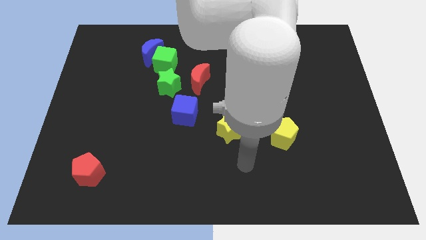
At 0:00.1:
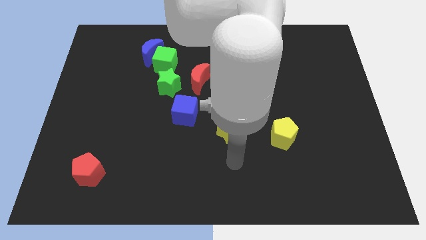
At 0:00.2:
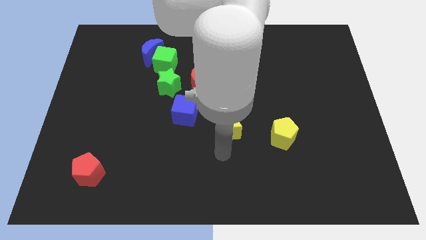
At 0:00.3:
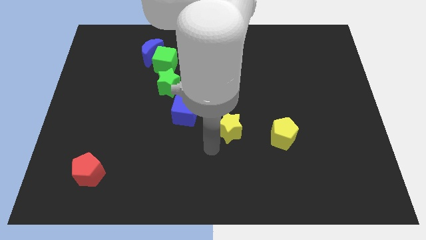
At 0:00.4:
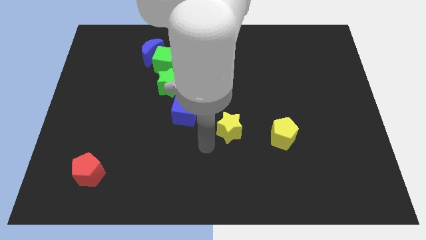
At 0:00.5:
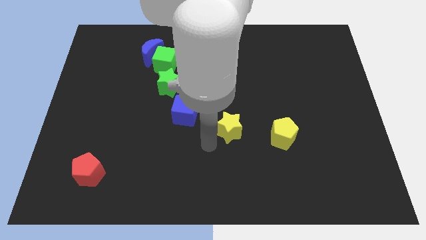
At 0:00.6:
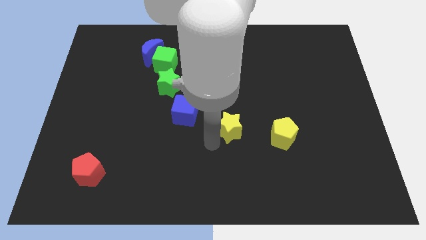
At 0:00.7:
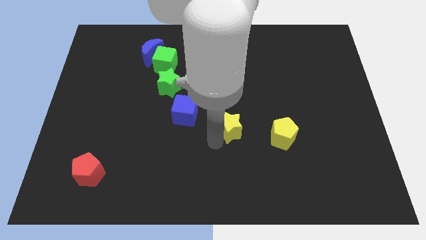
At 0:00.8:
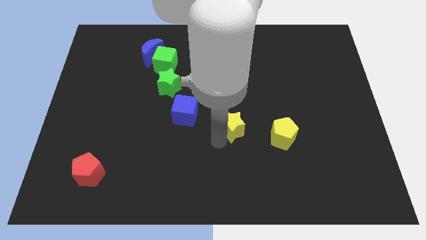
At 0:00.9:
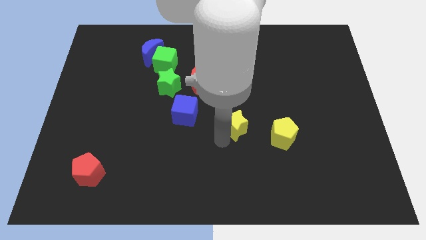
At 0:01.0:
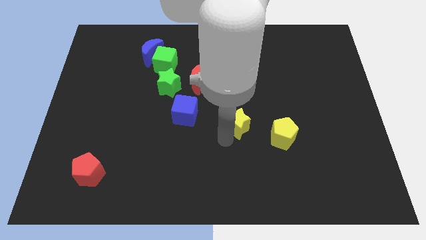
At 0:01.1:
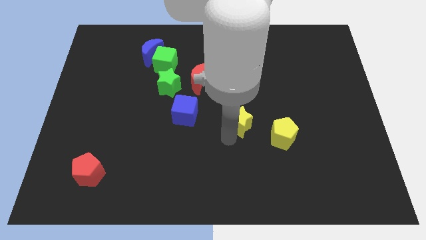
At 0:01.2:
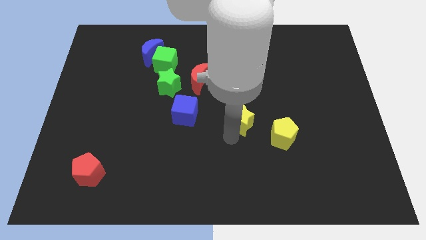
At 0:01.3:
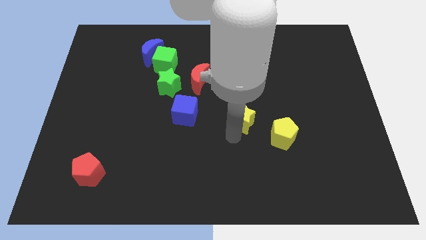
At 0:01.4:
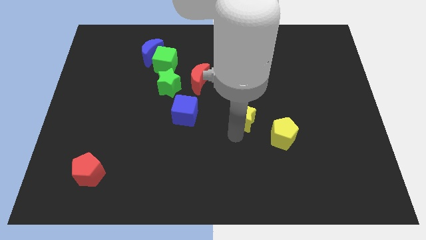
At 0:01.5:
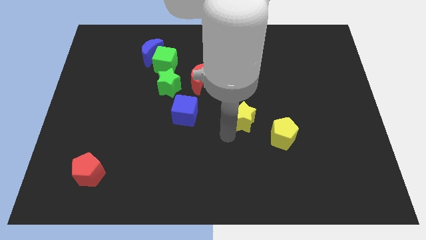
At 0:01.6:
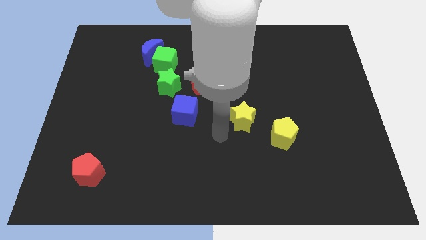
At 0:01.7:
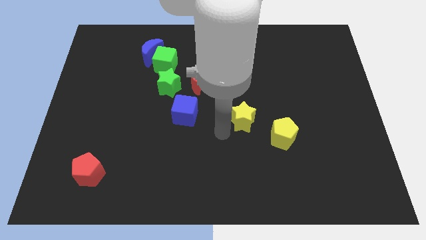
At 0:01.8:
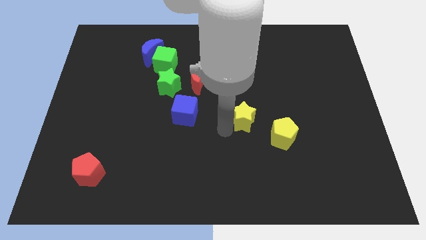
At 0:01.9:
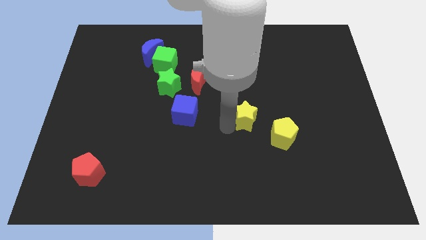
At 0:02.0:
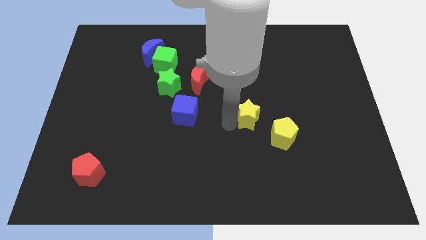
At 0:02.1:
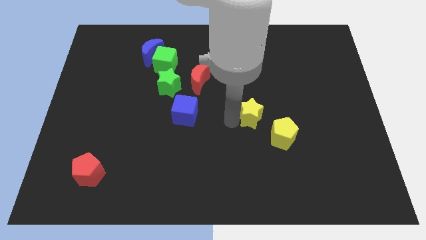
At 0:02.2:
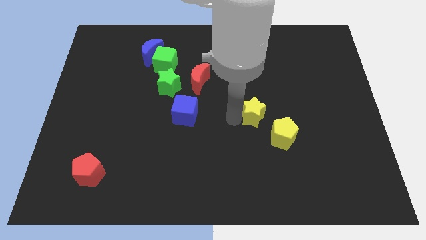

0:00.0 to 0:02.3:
slightly push the yellow star upwards and then to the right

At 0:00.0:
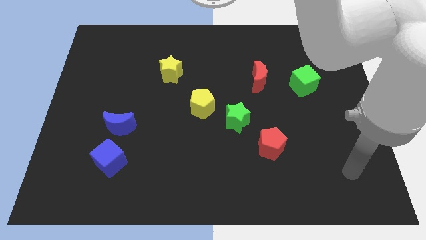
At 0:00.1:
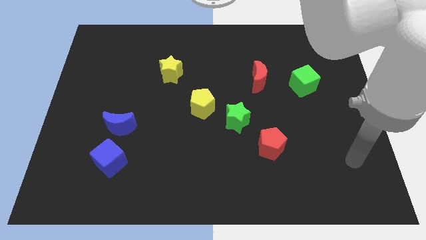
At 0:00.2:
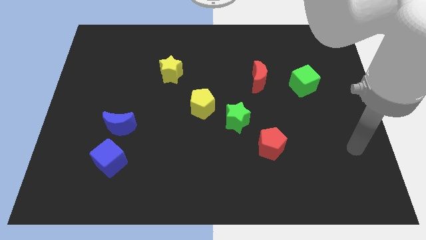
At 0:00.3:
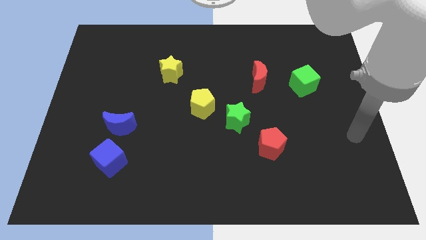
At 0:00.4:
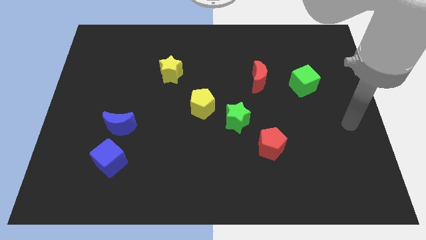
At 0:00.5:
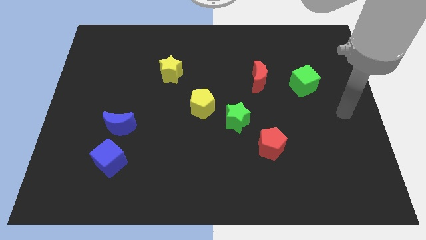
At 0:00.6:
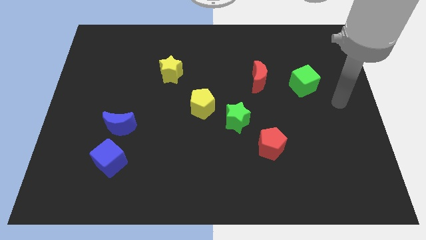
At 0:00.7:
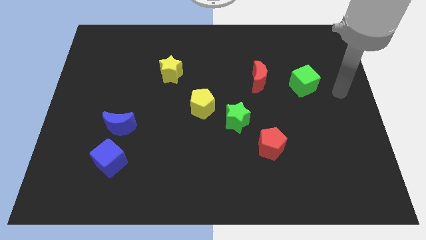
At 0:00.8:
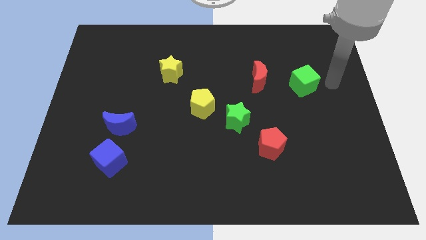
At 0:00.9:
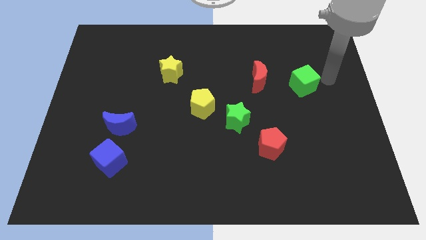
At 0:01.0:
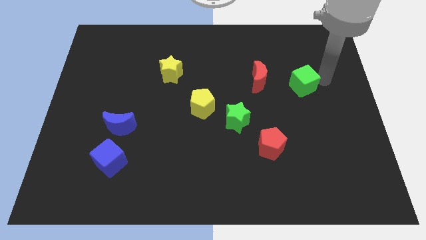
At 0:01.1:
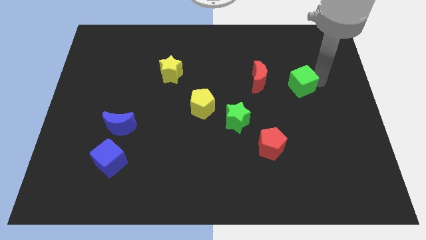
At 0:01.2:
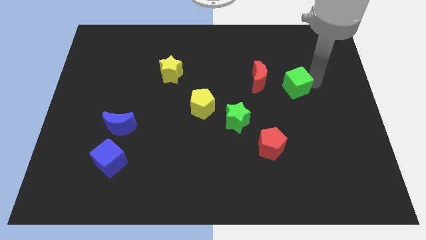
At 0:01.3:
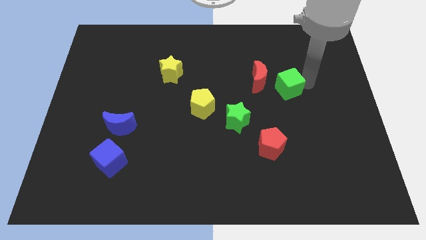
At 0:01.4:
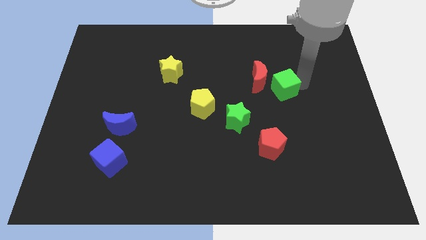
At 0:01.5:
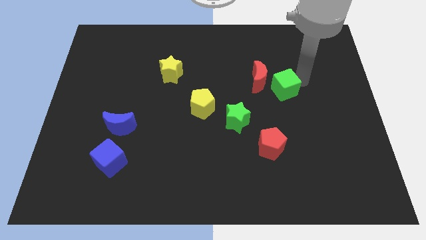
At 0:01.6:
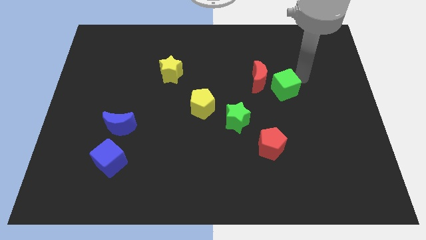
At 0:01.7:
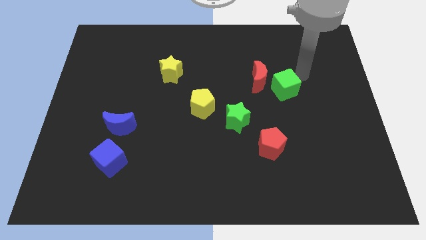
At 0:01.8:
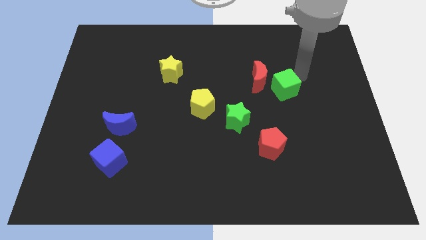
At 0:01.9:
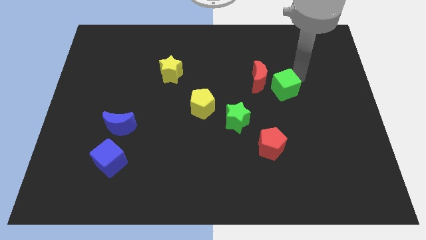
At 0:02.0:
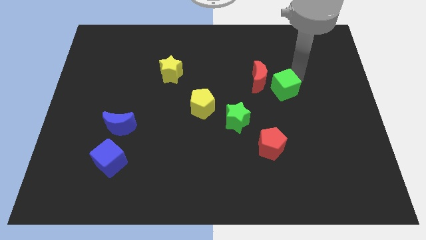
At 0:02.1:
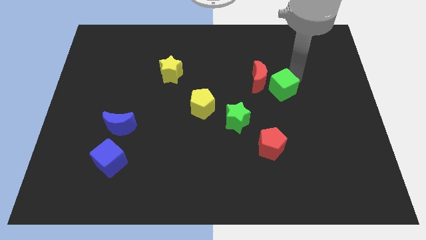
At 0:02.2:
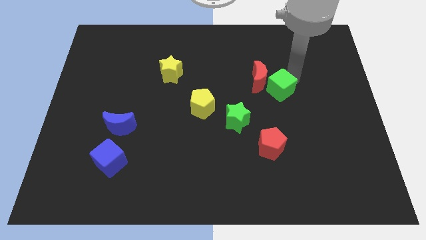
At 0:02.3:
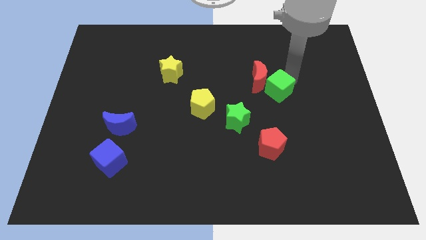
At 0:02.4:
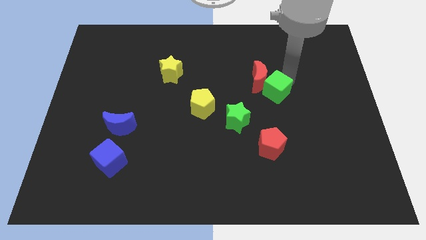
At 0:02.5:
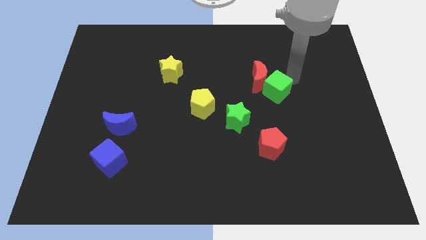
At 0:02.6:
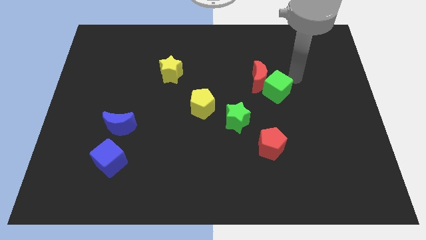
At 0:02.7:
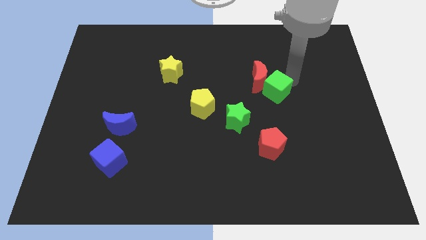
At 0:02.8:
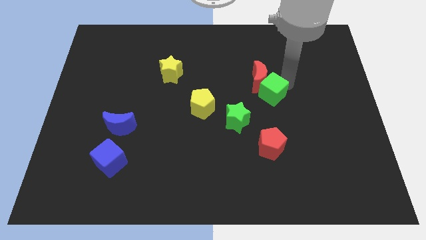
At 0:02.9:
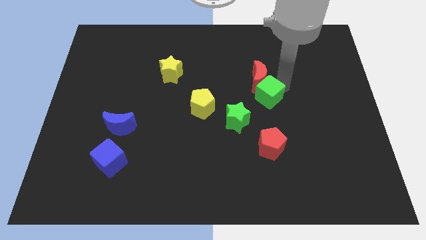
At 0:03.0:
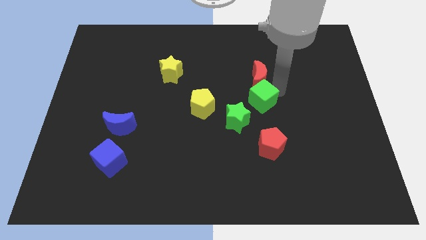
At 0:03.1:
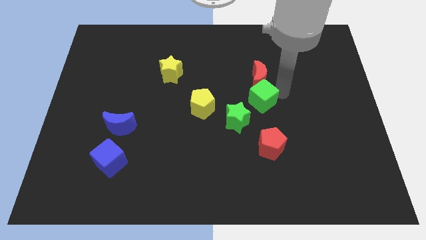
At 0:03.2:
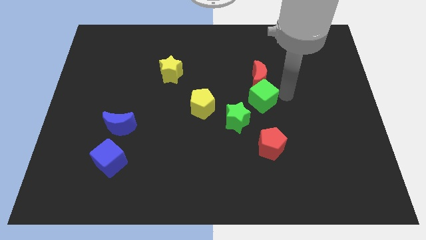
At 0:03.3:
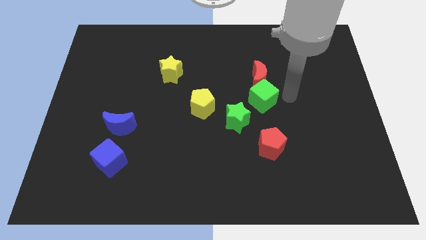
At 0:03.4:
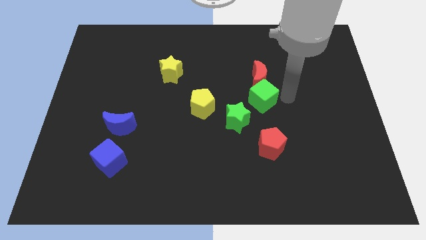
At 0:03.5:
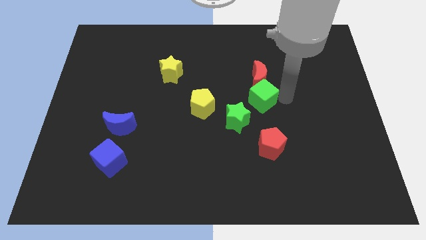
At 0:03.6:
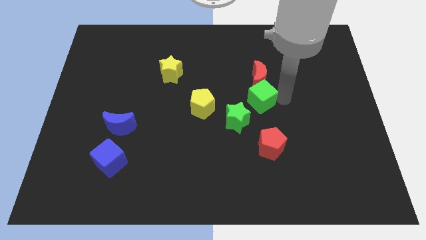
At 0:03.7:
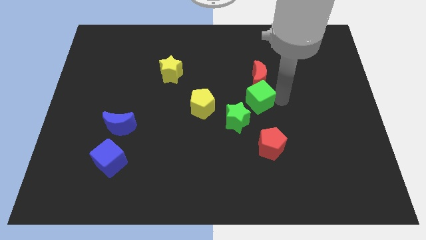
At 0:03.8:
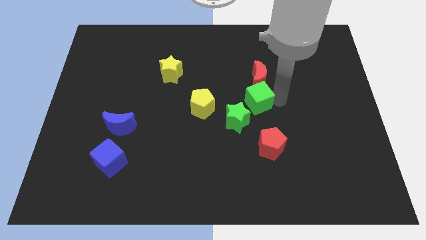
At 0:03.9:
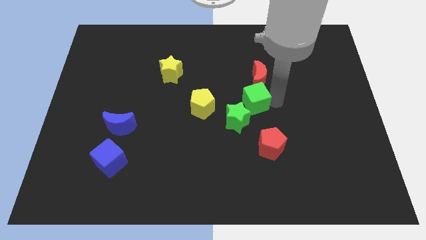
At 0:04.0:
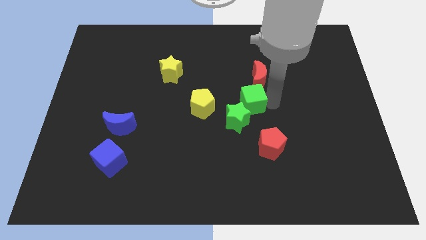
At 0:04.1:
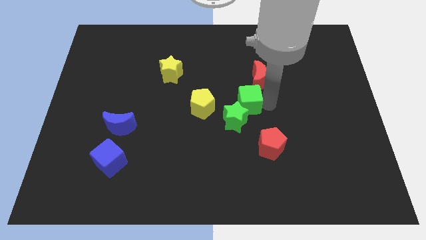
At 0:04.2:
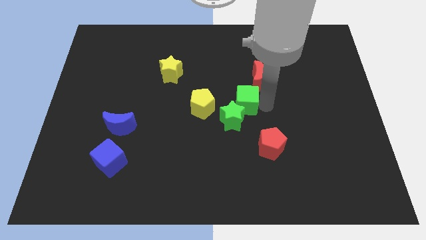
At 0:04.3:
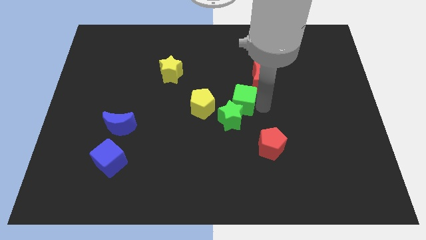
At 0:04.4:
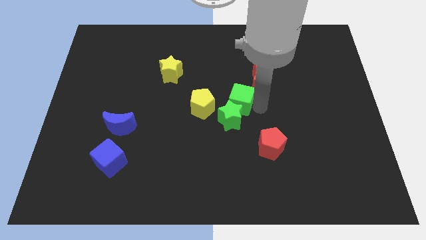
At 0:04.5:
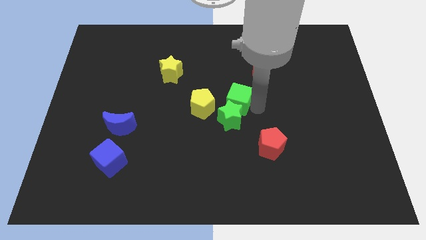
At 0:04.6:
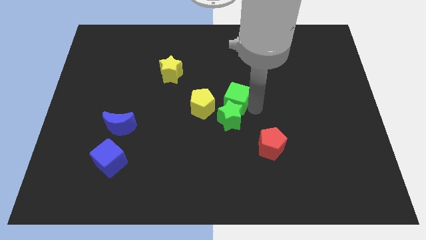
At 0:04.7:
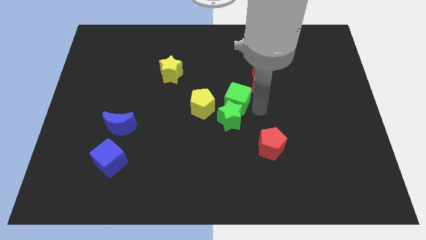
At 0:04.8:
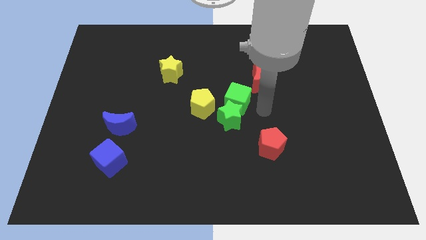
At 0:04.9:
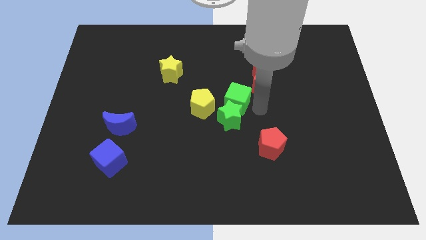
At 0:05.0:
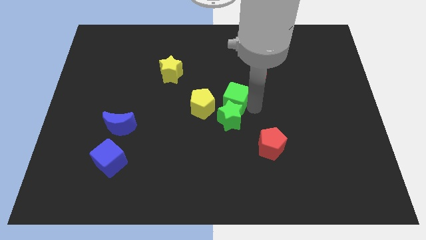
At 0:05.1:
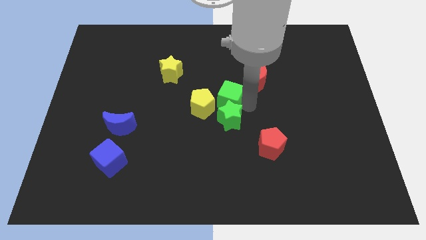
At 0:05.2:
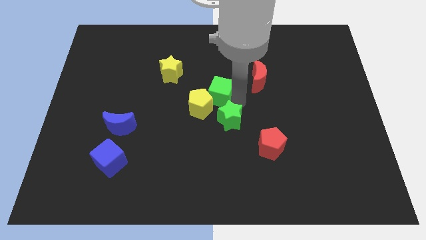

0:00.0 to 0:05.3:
push the green cube left

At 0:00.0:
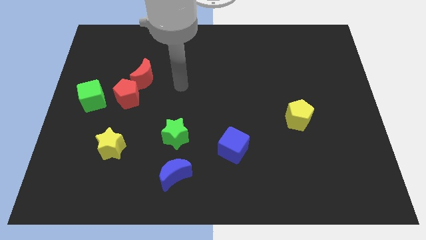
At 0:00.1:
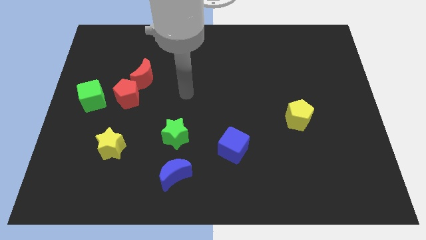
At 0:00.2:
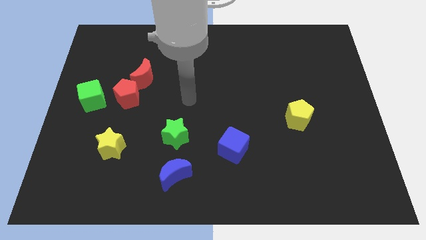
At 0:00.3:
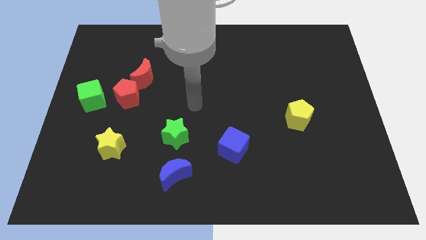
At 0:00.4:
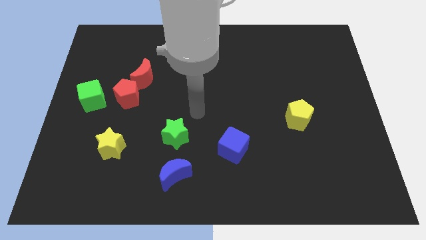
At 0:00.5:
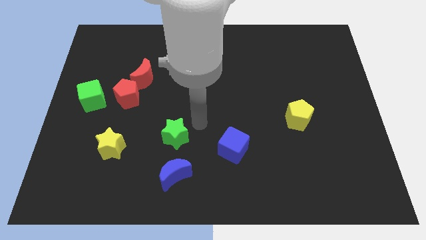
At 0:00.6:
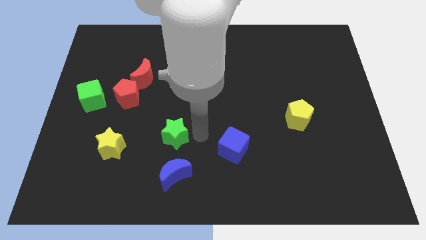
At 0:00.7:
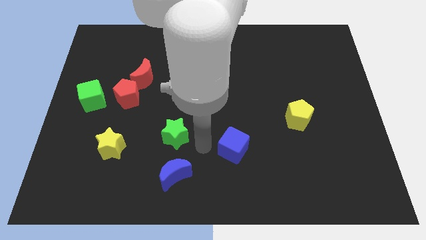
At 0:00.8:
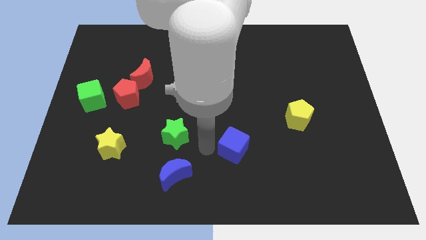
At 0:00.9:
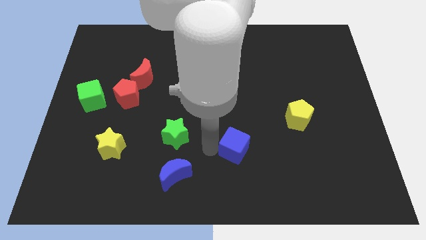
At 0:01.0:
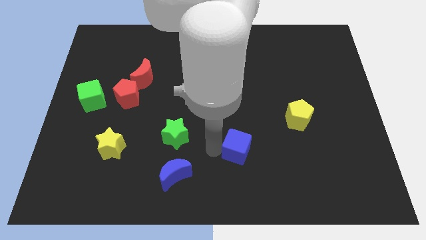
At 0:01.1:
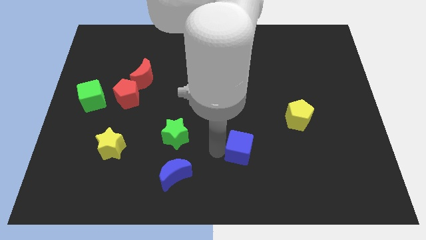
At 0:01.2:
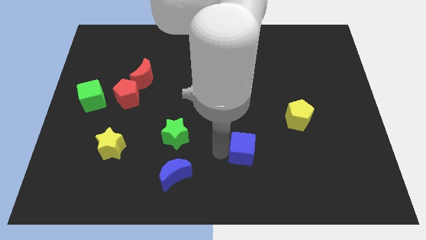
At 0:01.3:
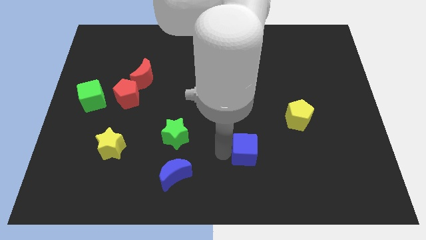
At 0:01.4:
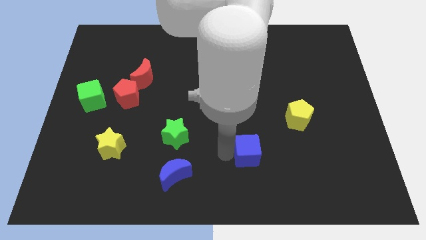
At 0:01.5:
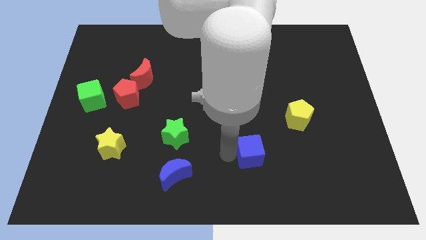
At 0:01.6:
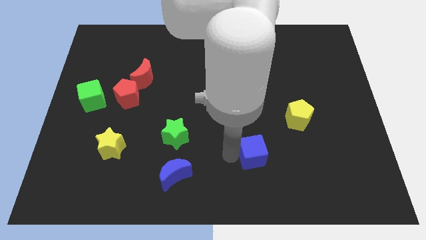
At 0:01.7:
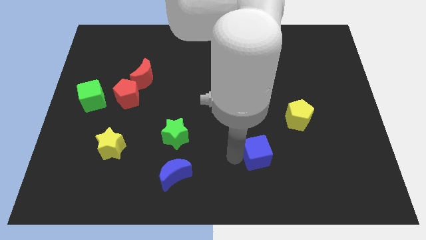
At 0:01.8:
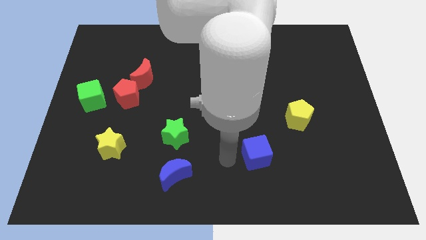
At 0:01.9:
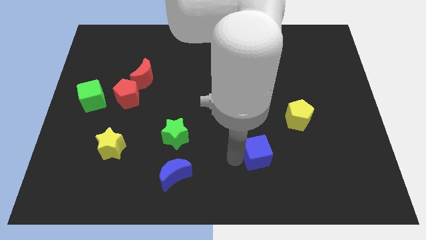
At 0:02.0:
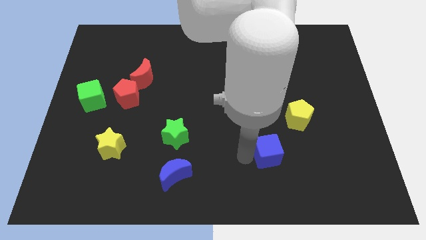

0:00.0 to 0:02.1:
slightly move the blue cube to the right
